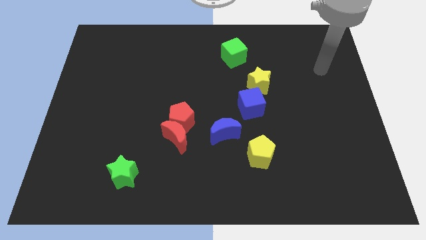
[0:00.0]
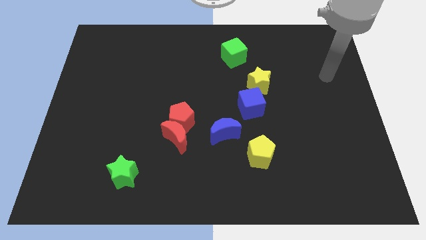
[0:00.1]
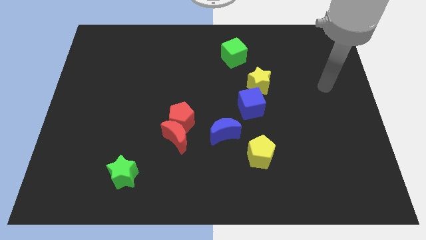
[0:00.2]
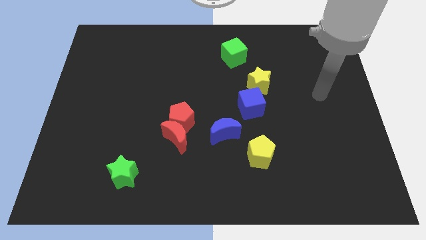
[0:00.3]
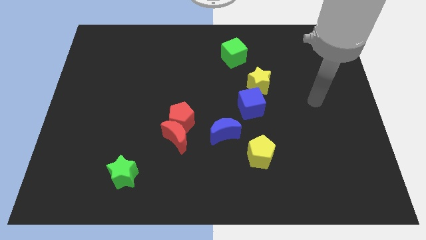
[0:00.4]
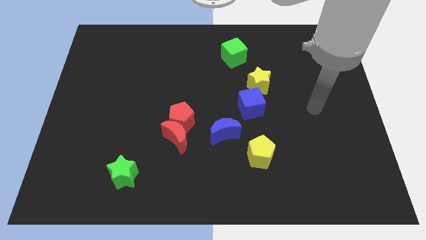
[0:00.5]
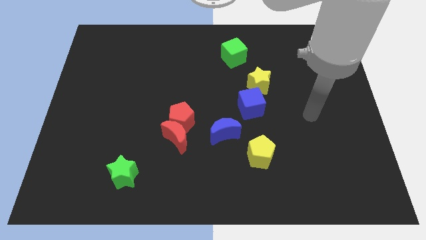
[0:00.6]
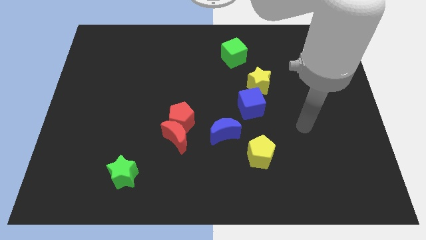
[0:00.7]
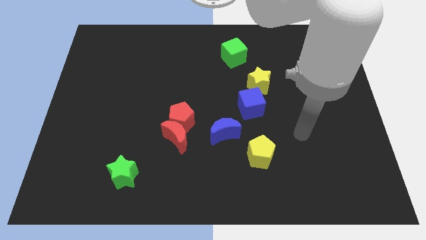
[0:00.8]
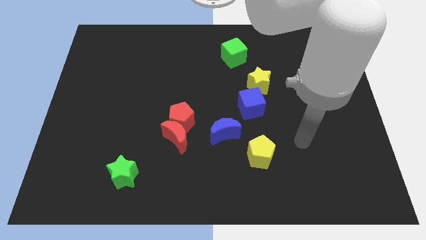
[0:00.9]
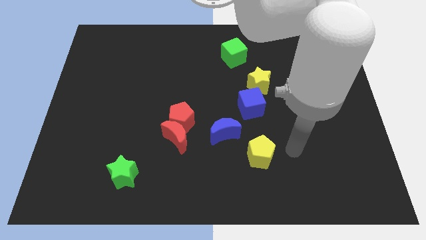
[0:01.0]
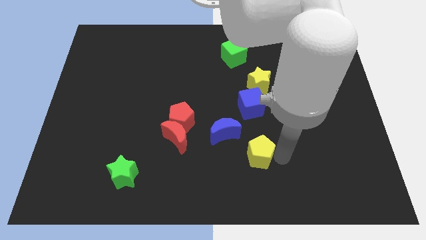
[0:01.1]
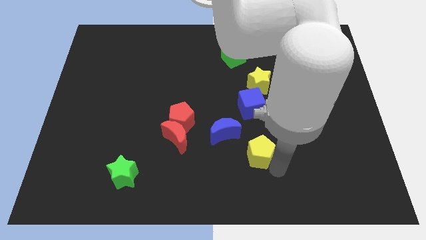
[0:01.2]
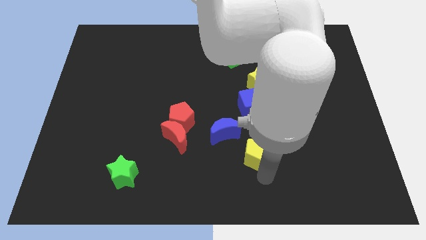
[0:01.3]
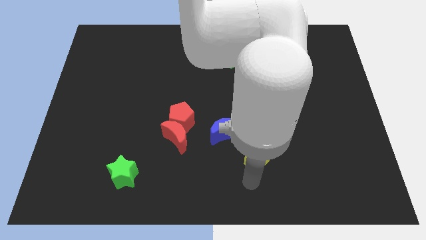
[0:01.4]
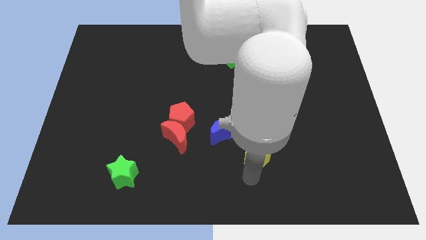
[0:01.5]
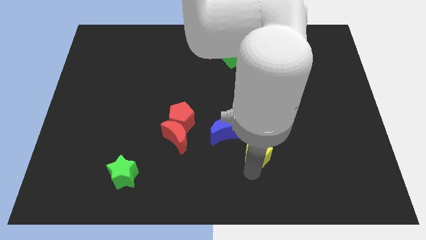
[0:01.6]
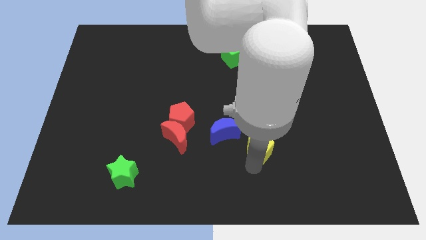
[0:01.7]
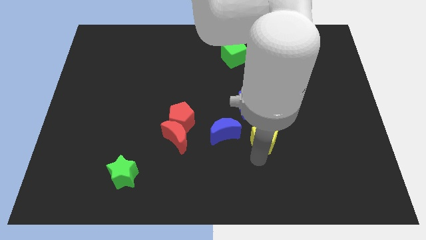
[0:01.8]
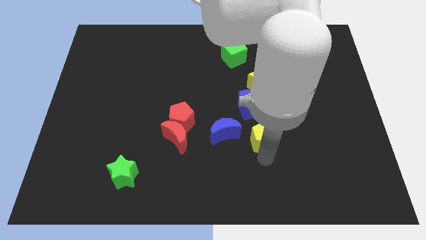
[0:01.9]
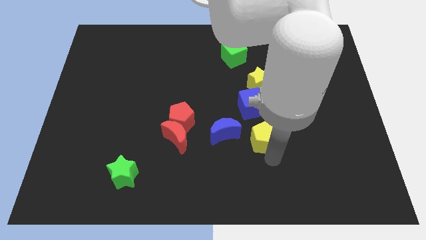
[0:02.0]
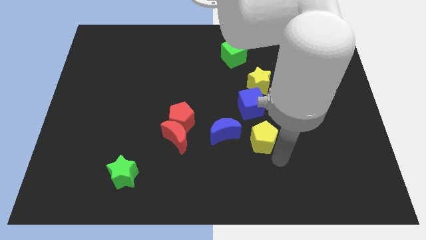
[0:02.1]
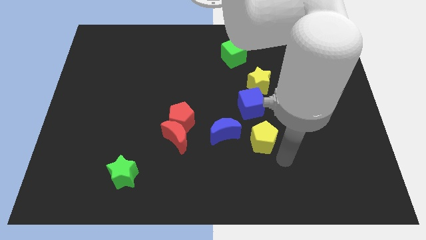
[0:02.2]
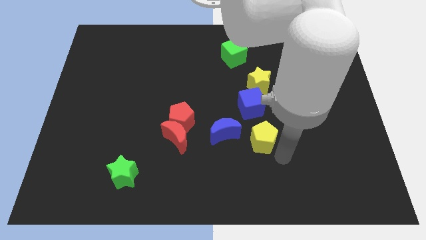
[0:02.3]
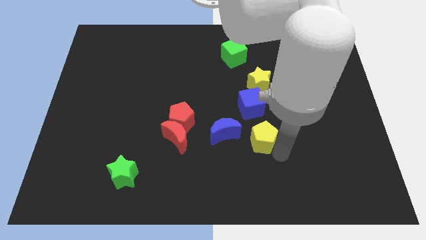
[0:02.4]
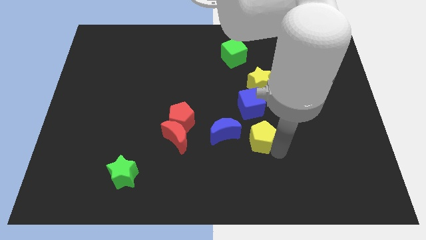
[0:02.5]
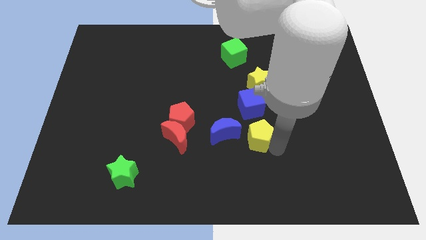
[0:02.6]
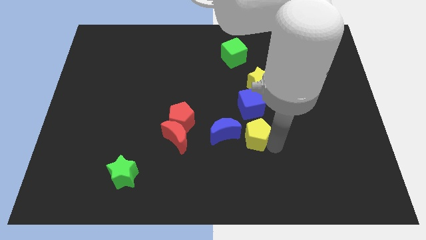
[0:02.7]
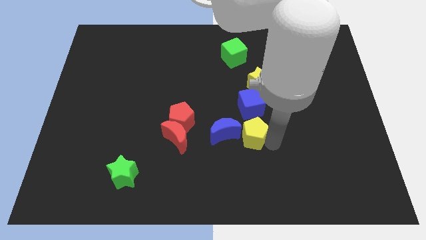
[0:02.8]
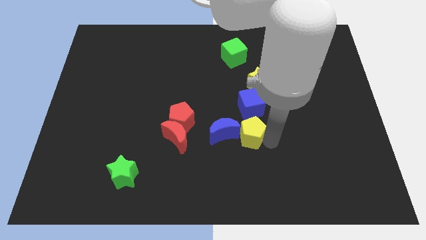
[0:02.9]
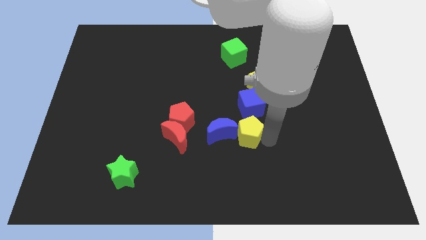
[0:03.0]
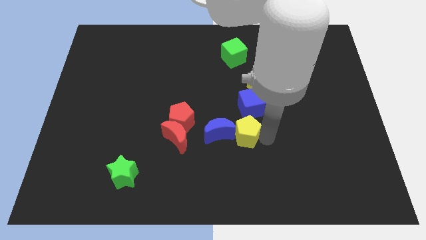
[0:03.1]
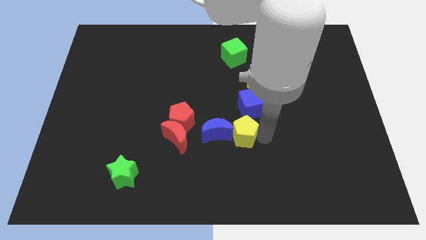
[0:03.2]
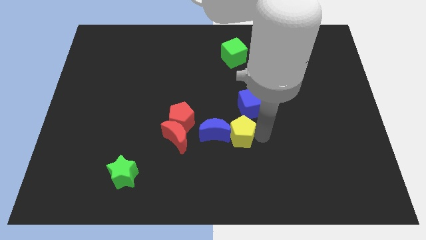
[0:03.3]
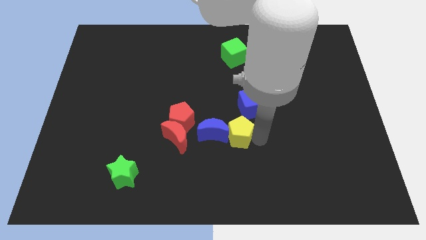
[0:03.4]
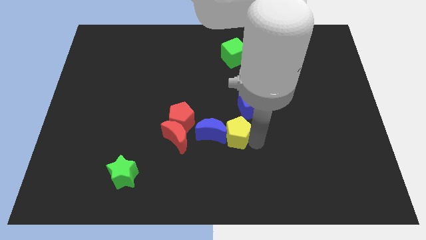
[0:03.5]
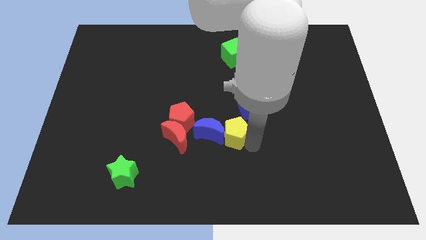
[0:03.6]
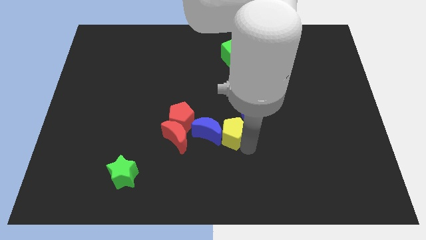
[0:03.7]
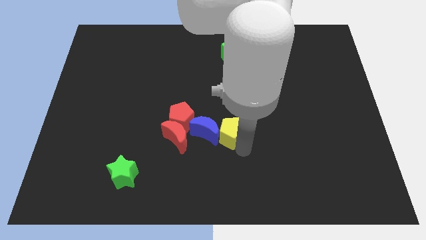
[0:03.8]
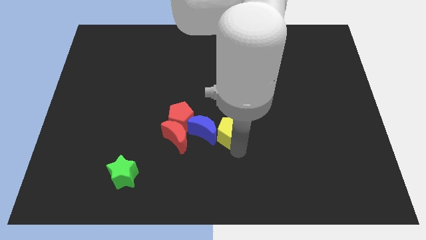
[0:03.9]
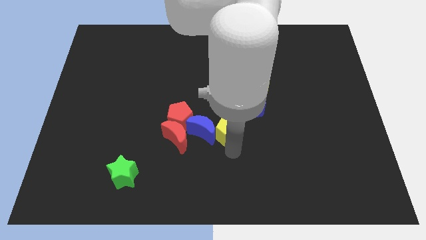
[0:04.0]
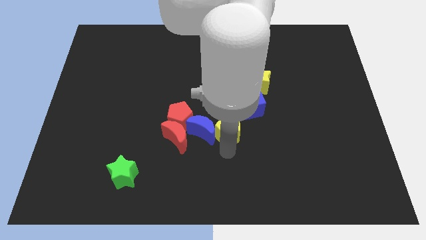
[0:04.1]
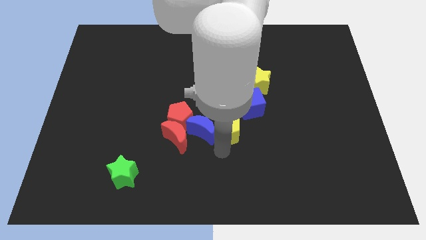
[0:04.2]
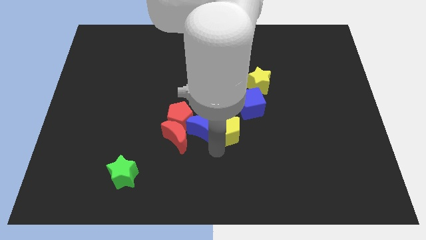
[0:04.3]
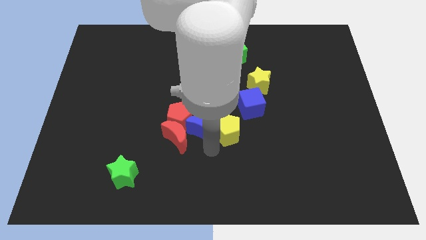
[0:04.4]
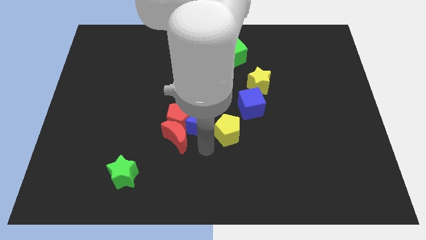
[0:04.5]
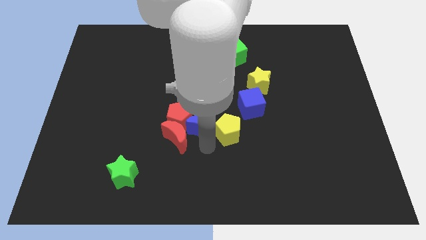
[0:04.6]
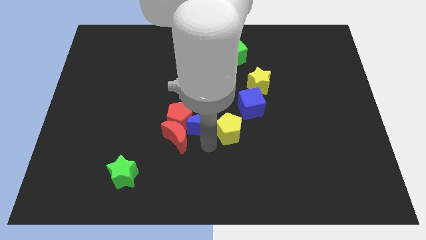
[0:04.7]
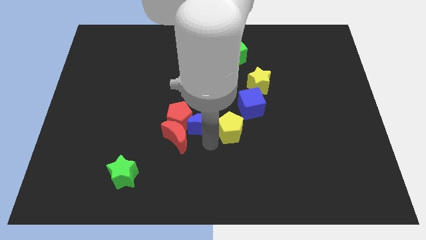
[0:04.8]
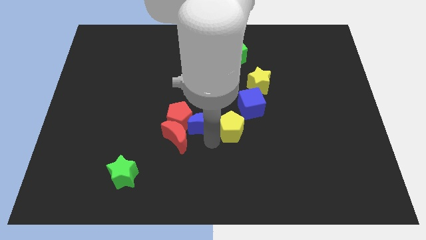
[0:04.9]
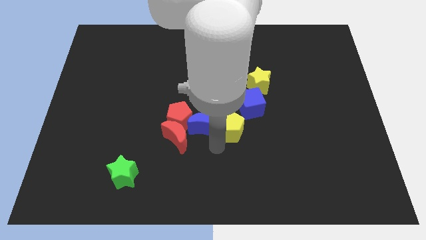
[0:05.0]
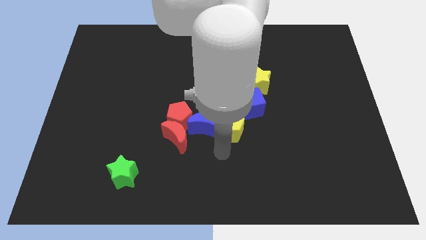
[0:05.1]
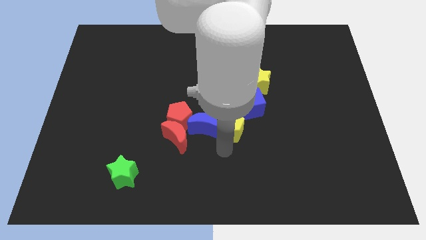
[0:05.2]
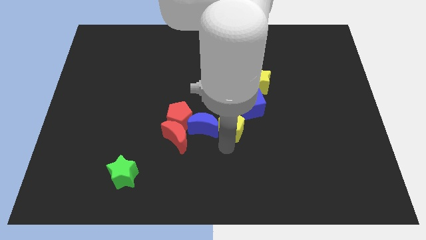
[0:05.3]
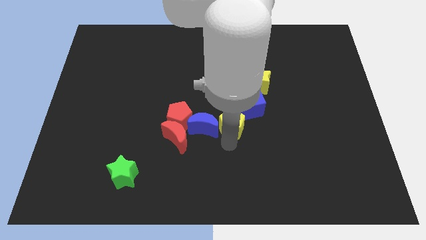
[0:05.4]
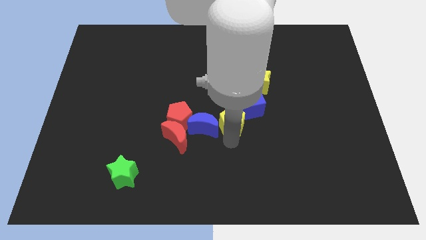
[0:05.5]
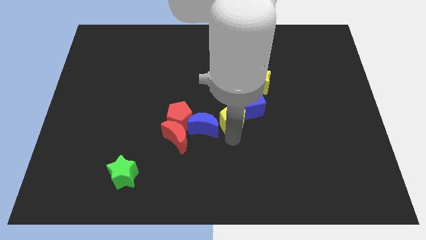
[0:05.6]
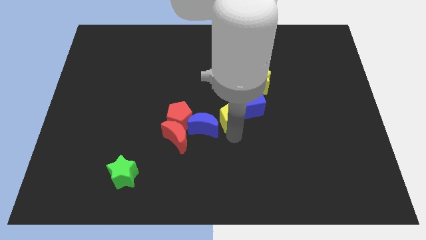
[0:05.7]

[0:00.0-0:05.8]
put the yellow pentagon to the bottom left side of the yellow star

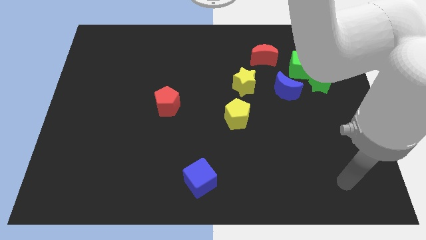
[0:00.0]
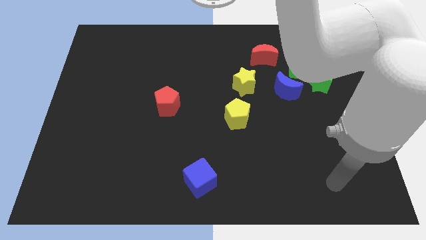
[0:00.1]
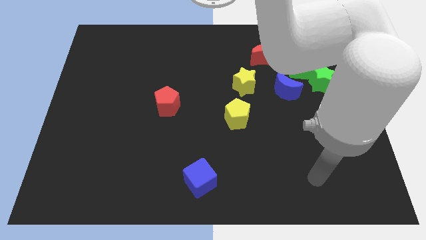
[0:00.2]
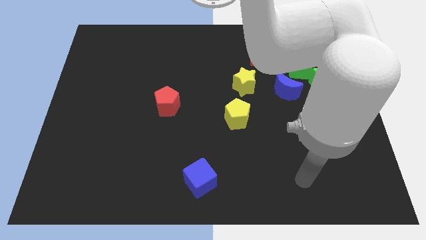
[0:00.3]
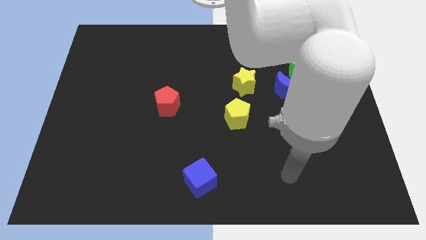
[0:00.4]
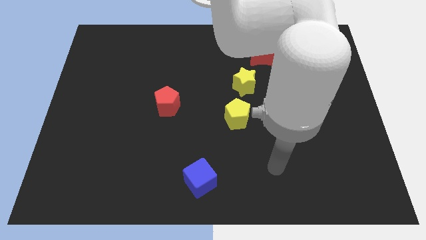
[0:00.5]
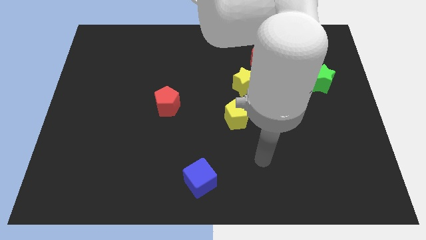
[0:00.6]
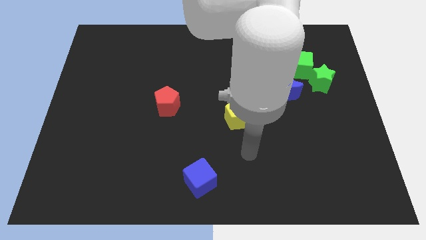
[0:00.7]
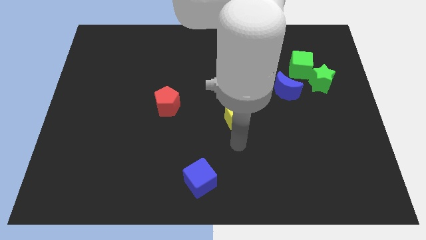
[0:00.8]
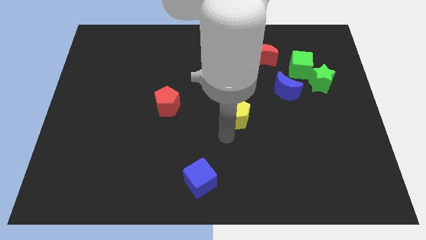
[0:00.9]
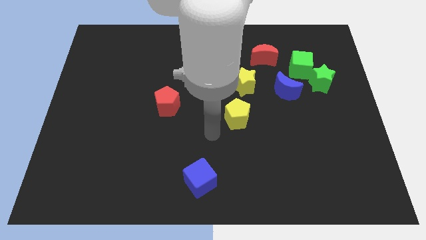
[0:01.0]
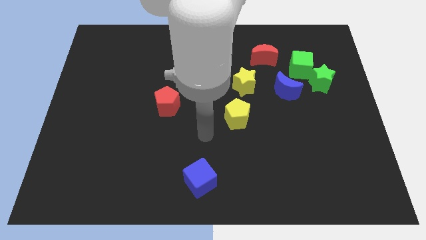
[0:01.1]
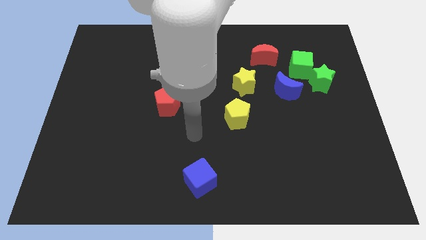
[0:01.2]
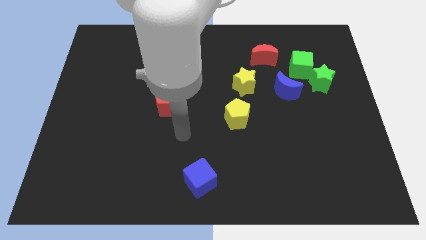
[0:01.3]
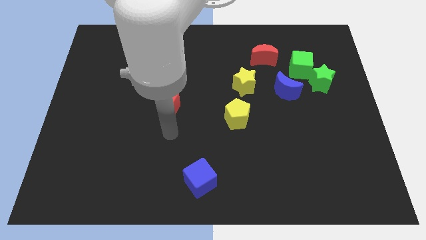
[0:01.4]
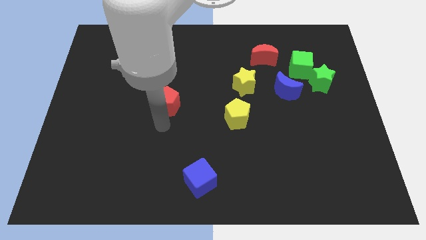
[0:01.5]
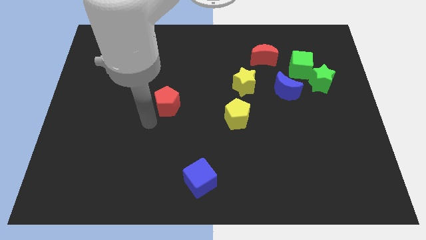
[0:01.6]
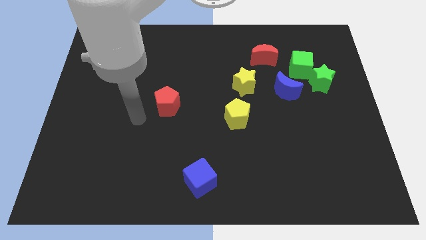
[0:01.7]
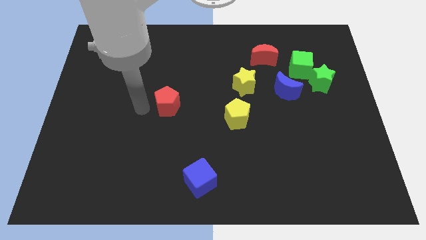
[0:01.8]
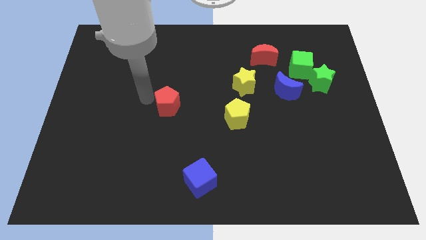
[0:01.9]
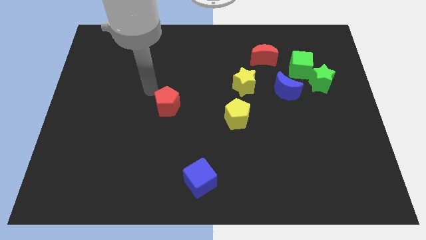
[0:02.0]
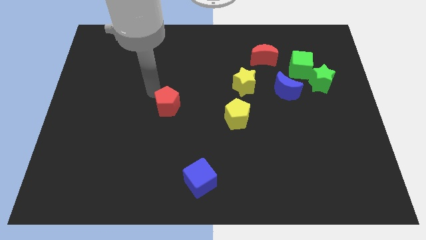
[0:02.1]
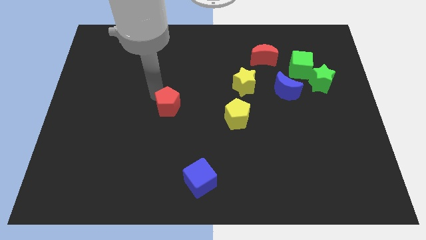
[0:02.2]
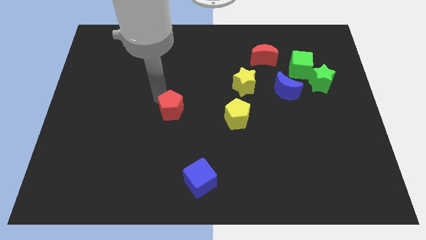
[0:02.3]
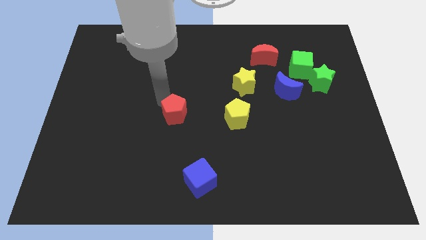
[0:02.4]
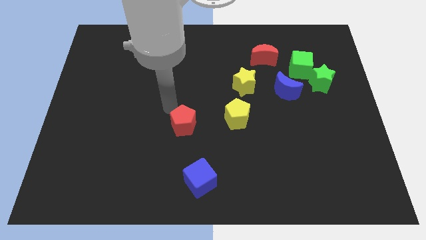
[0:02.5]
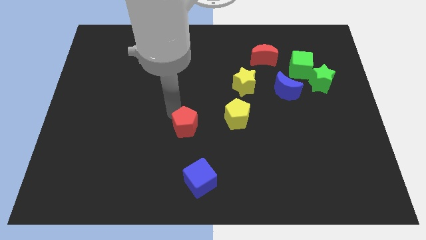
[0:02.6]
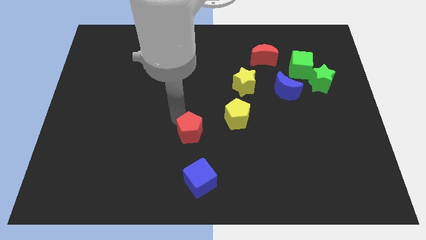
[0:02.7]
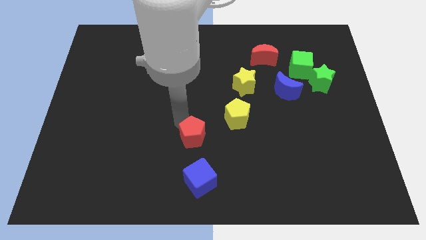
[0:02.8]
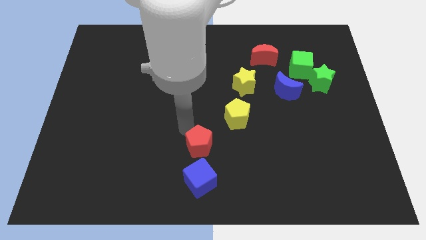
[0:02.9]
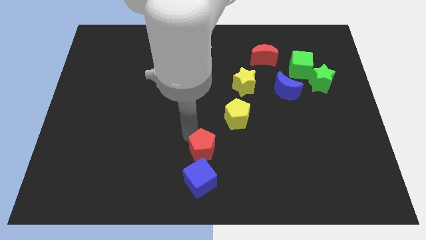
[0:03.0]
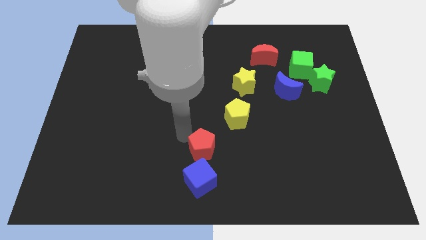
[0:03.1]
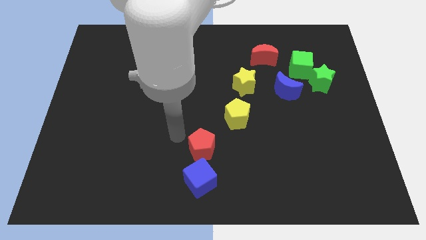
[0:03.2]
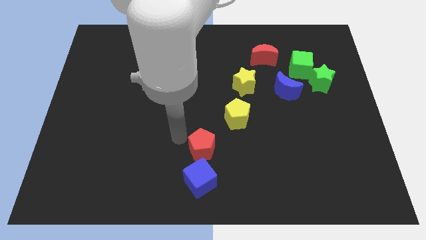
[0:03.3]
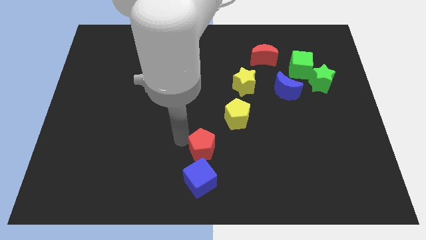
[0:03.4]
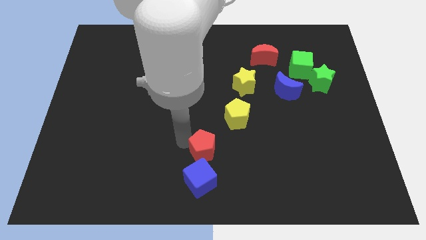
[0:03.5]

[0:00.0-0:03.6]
move the red pentagon to the top right side of the blue cube
